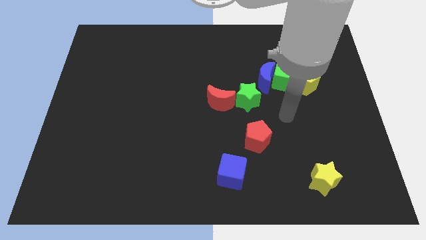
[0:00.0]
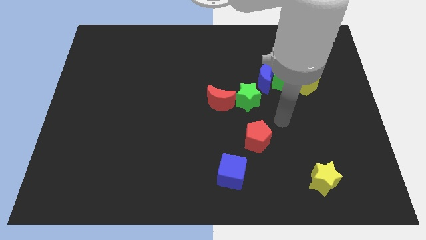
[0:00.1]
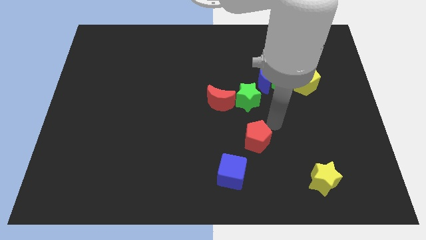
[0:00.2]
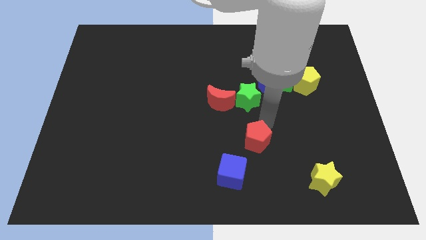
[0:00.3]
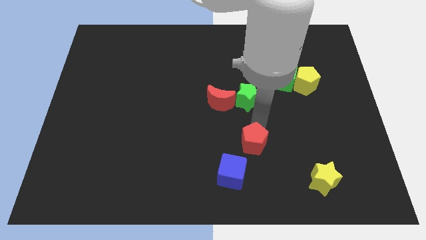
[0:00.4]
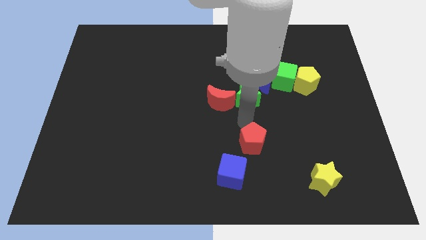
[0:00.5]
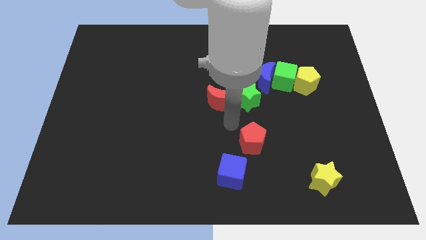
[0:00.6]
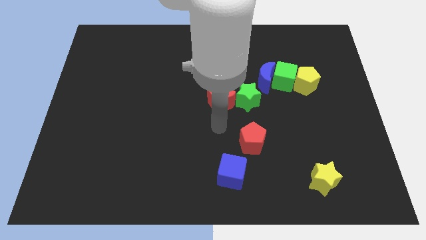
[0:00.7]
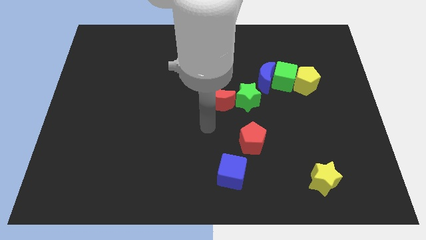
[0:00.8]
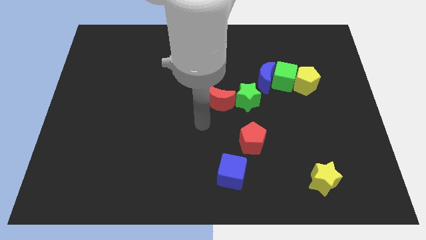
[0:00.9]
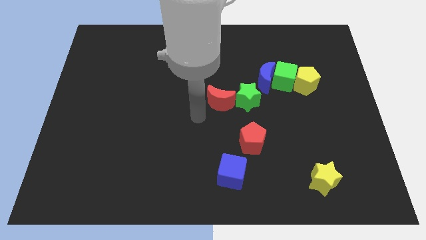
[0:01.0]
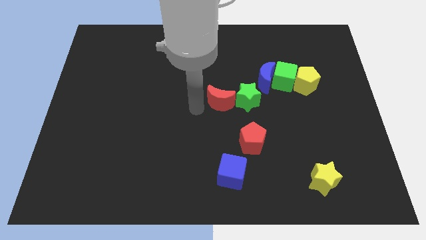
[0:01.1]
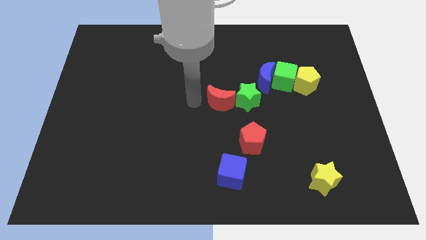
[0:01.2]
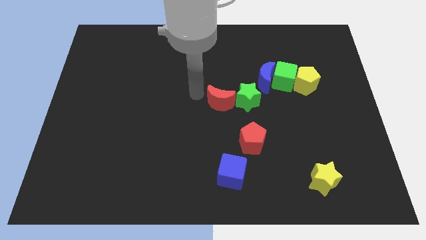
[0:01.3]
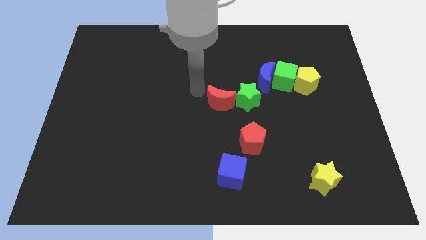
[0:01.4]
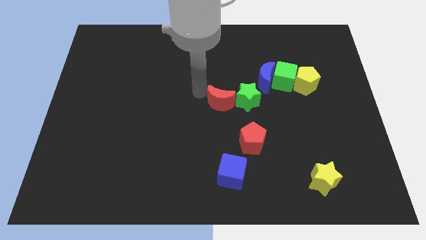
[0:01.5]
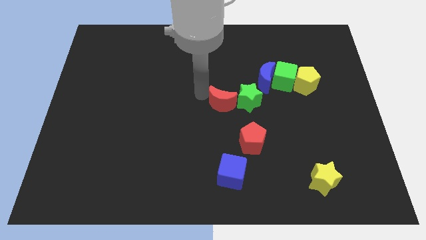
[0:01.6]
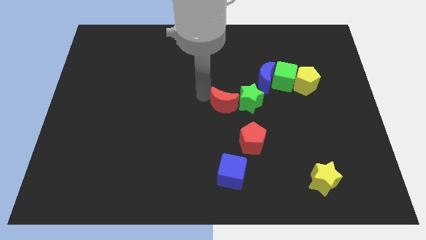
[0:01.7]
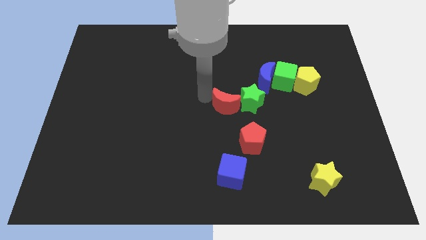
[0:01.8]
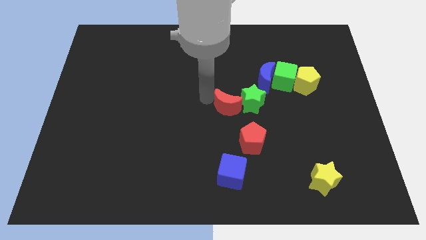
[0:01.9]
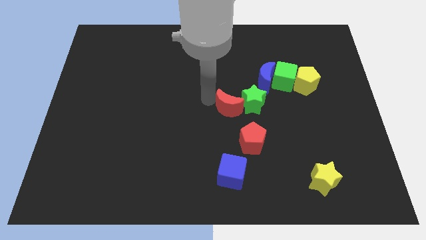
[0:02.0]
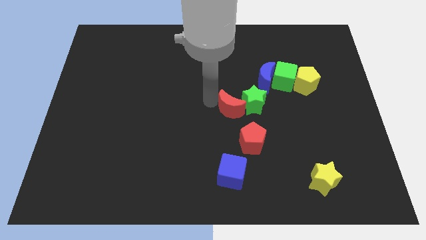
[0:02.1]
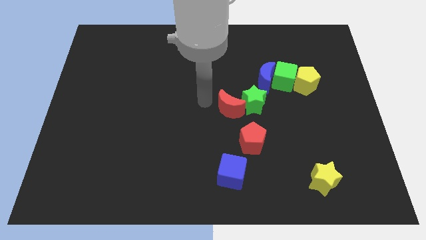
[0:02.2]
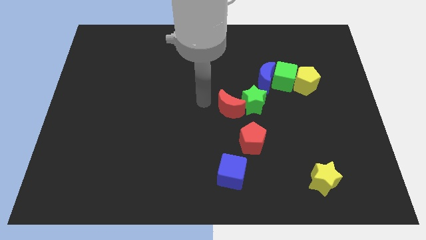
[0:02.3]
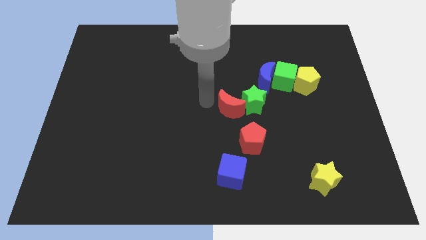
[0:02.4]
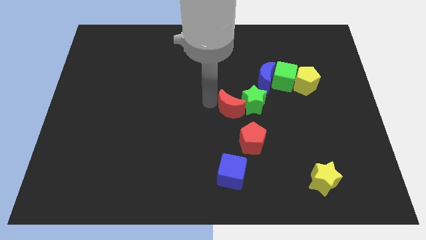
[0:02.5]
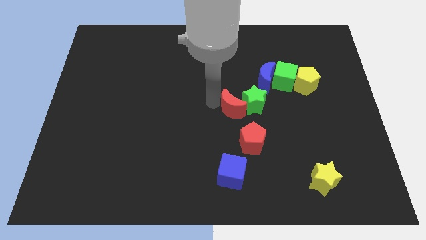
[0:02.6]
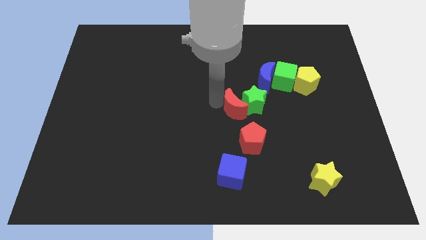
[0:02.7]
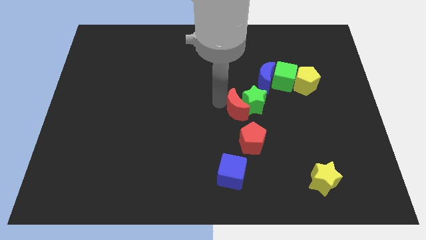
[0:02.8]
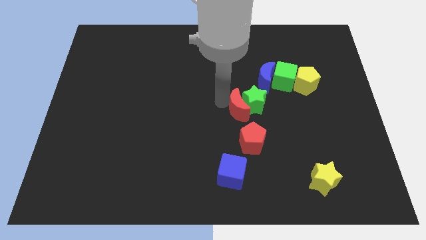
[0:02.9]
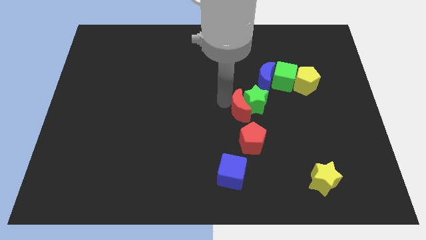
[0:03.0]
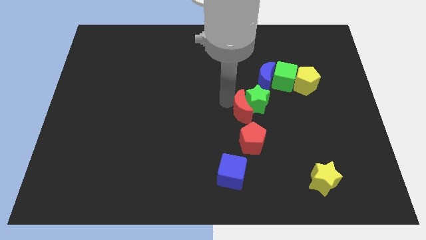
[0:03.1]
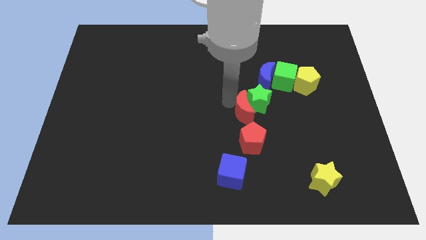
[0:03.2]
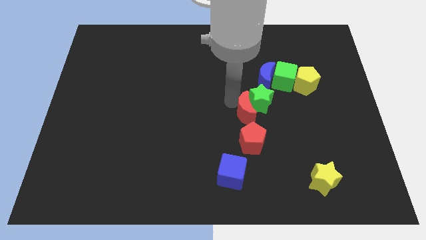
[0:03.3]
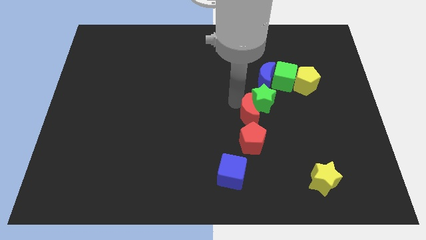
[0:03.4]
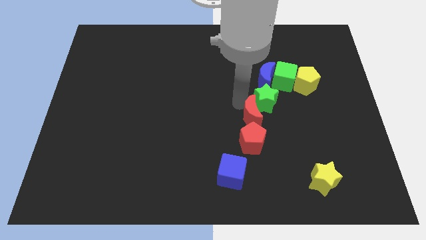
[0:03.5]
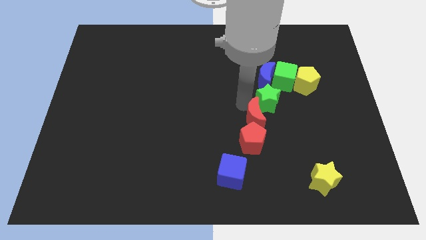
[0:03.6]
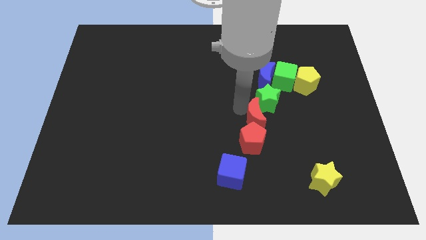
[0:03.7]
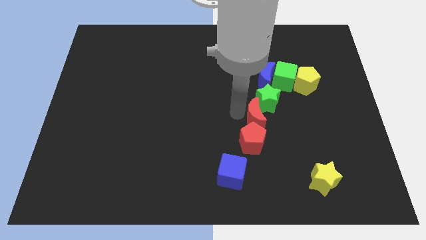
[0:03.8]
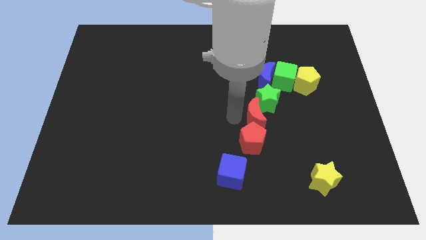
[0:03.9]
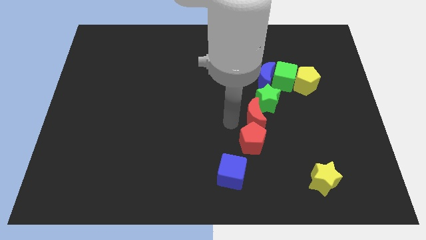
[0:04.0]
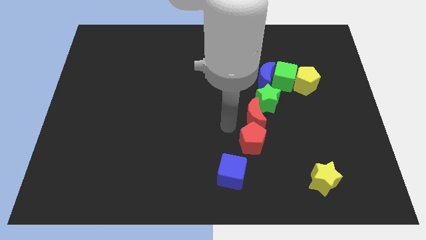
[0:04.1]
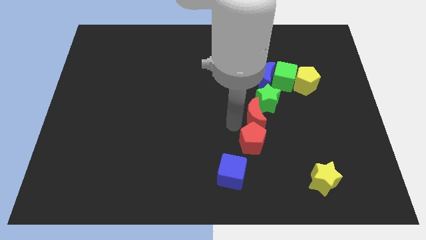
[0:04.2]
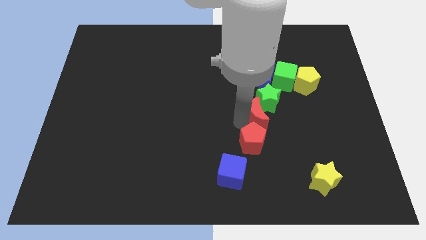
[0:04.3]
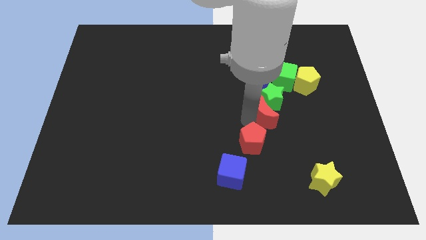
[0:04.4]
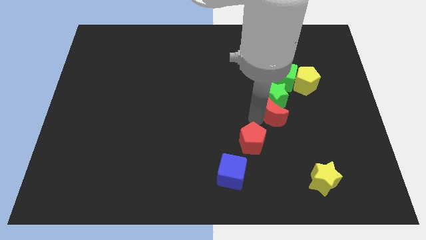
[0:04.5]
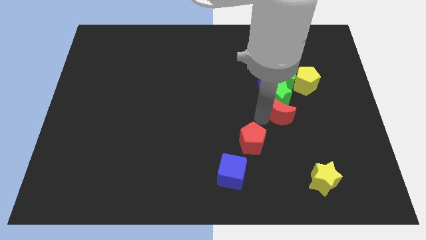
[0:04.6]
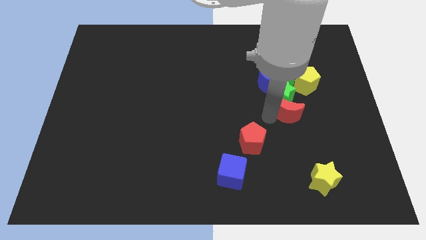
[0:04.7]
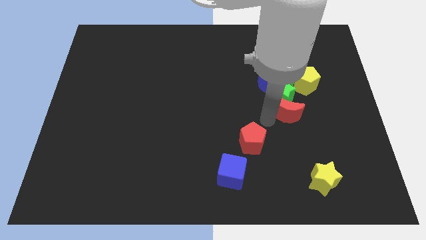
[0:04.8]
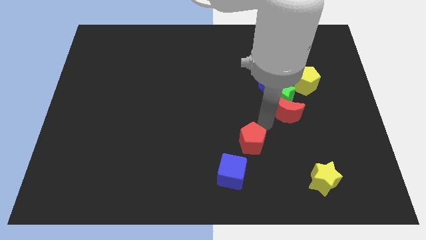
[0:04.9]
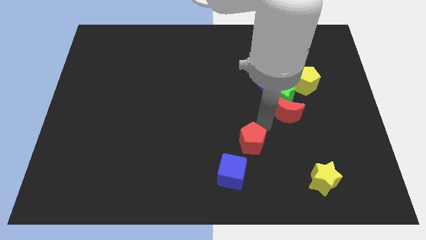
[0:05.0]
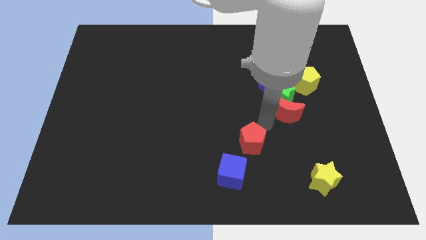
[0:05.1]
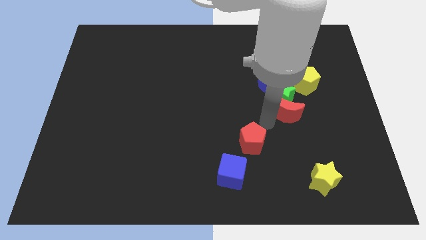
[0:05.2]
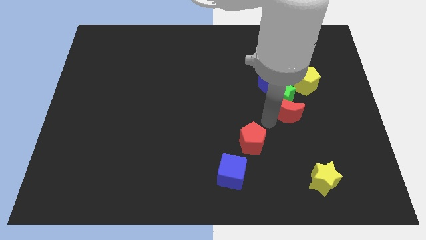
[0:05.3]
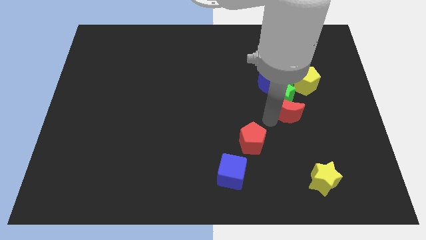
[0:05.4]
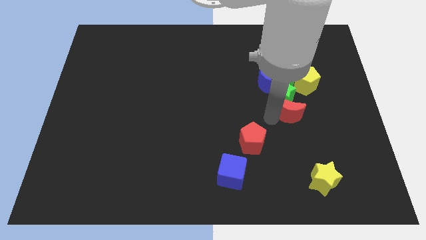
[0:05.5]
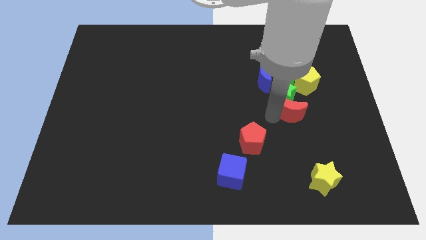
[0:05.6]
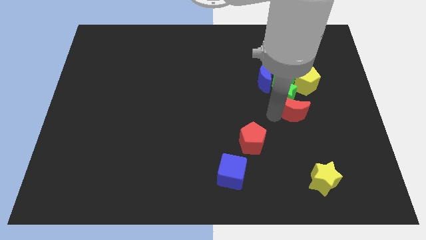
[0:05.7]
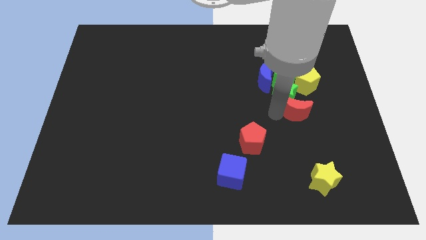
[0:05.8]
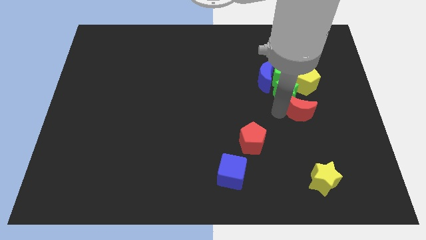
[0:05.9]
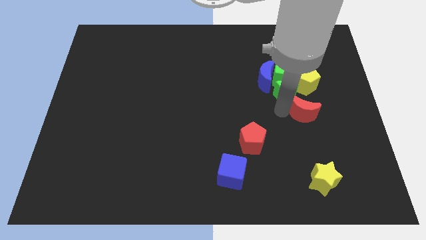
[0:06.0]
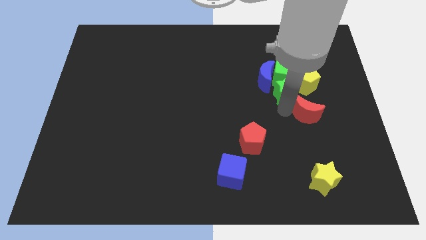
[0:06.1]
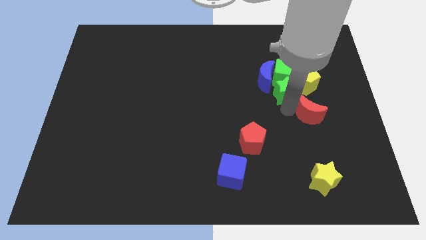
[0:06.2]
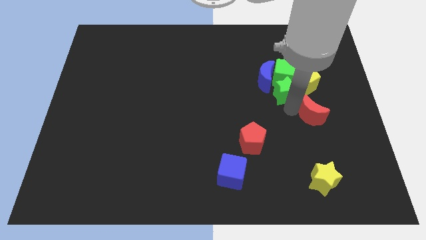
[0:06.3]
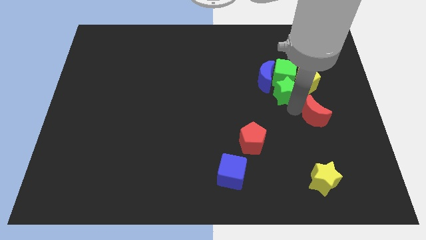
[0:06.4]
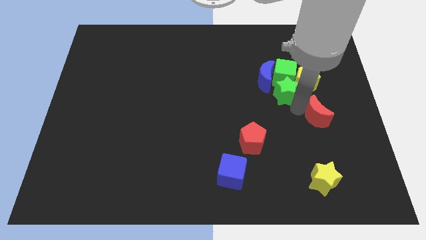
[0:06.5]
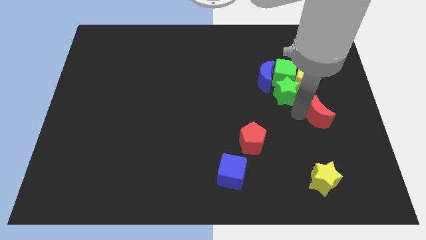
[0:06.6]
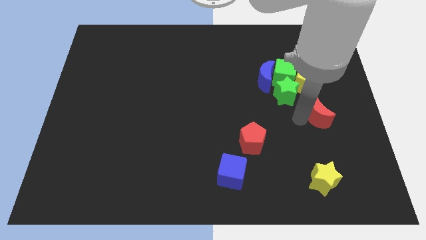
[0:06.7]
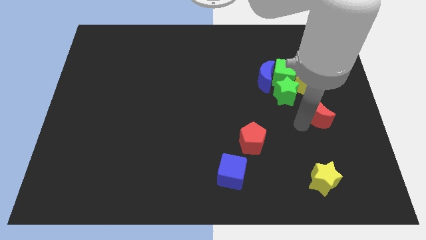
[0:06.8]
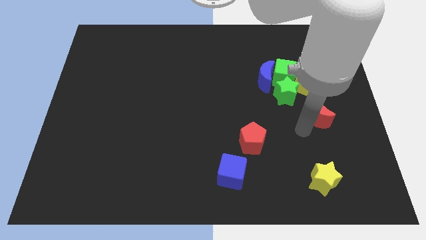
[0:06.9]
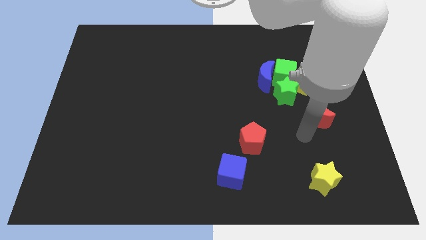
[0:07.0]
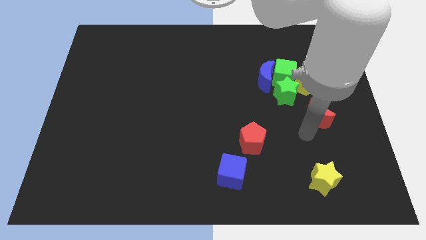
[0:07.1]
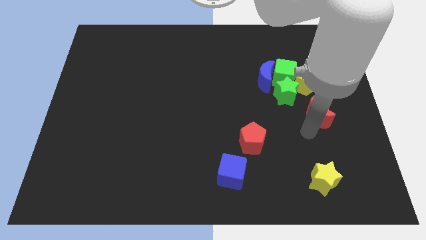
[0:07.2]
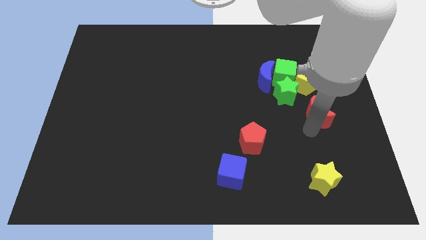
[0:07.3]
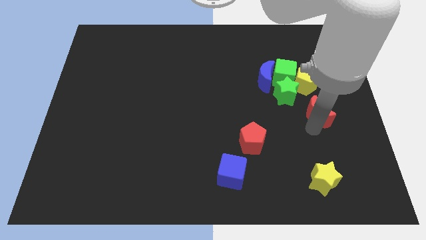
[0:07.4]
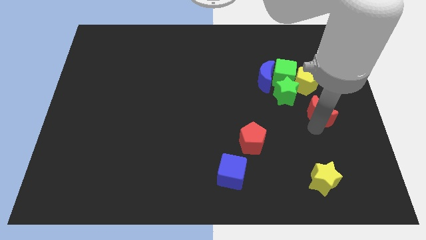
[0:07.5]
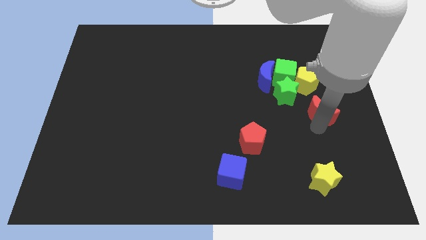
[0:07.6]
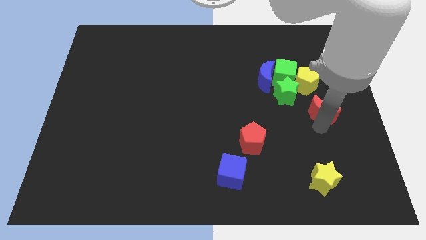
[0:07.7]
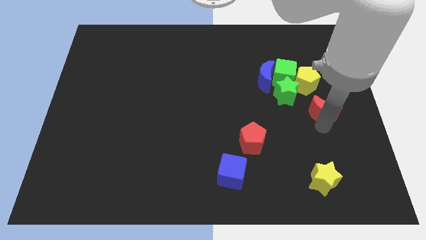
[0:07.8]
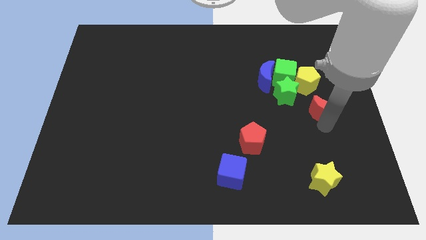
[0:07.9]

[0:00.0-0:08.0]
slide the red moon to the right side
